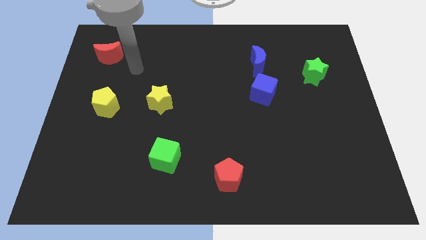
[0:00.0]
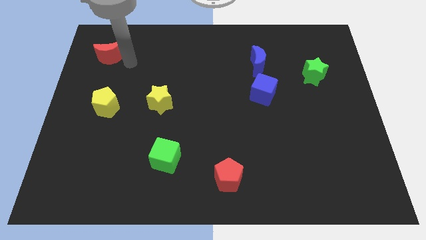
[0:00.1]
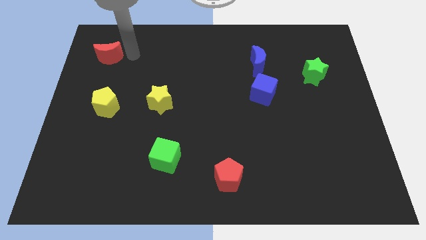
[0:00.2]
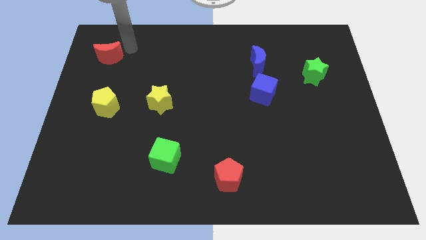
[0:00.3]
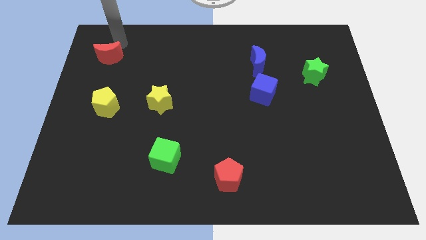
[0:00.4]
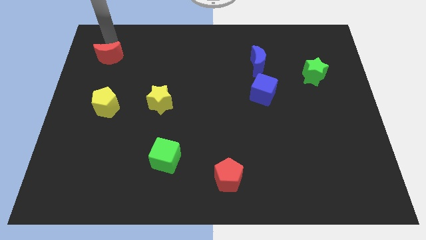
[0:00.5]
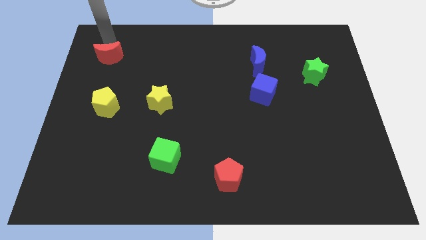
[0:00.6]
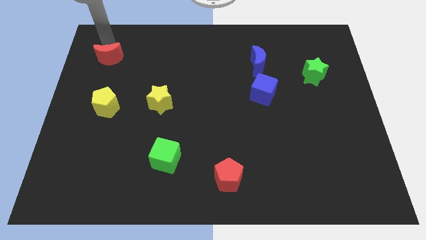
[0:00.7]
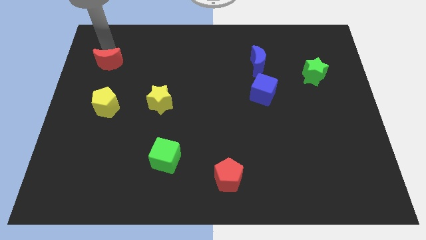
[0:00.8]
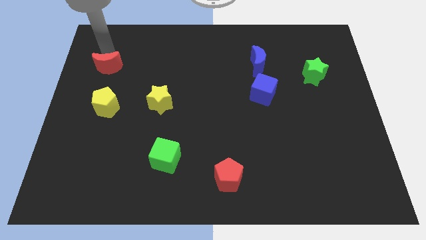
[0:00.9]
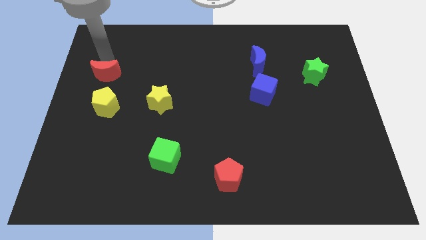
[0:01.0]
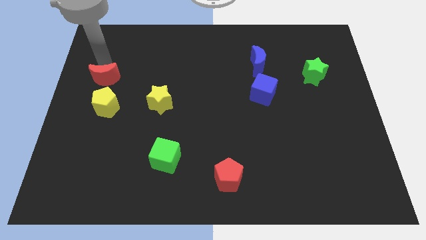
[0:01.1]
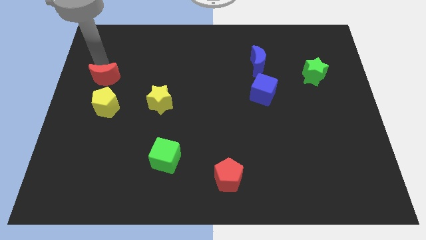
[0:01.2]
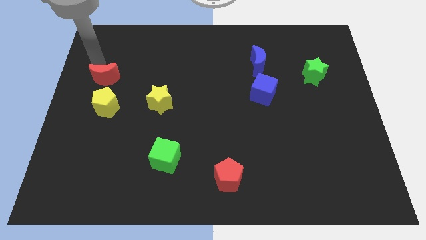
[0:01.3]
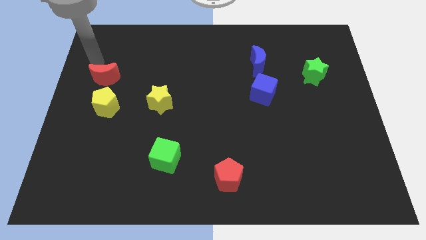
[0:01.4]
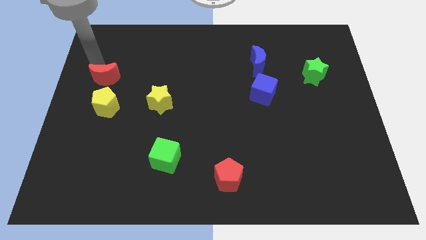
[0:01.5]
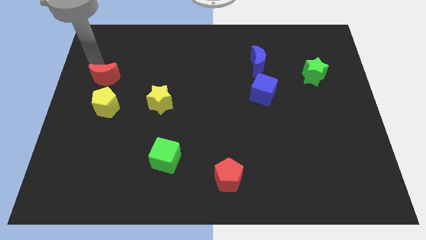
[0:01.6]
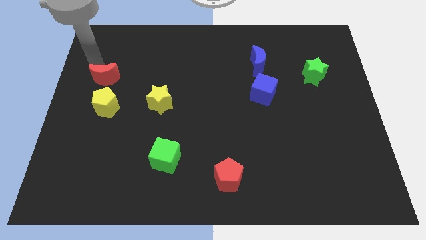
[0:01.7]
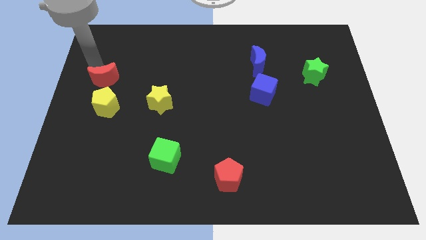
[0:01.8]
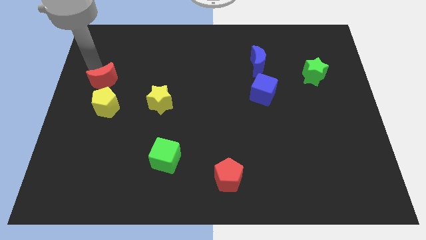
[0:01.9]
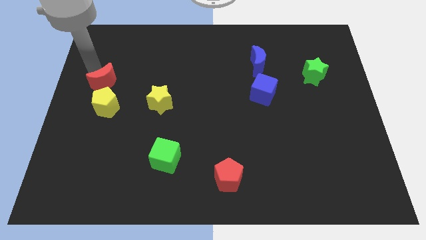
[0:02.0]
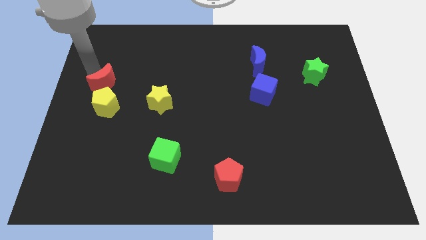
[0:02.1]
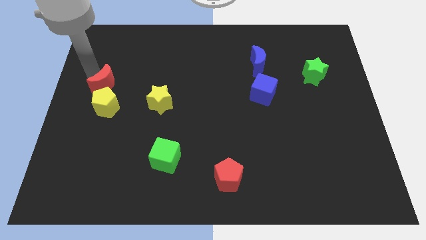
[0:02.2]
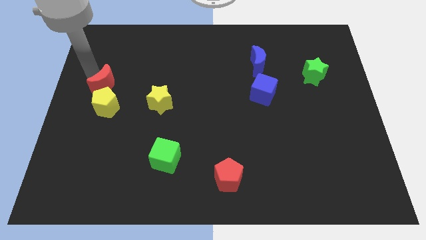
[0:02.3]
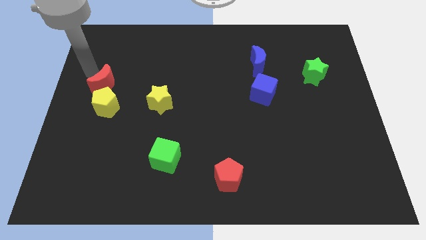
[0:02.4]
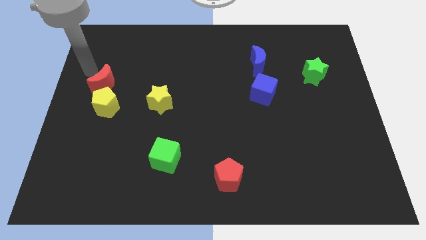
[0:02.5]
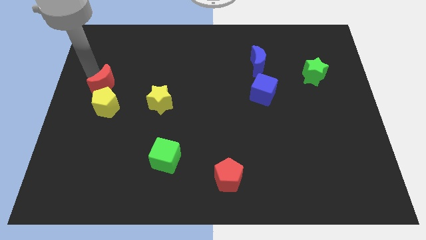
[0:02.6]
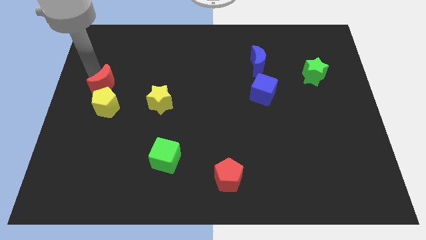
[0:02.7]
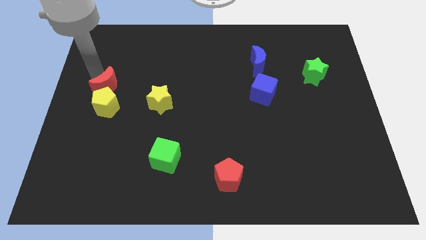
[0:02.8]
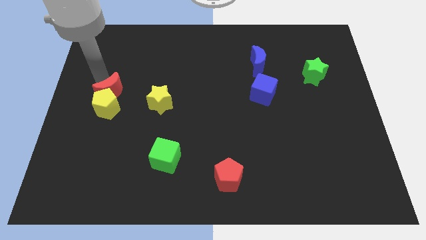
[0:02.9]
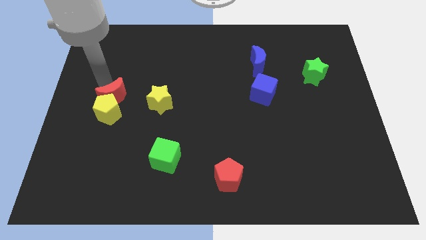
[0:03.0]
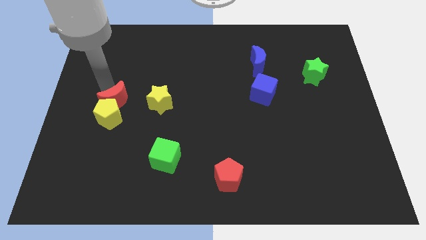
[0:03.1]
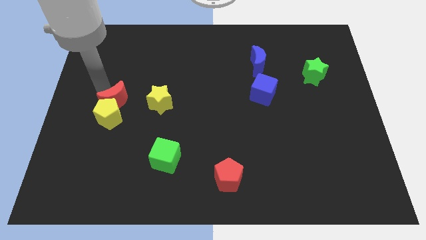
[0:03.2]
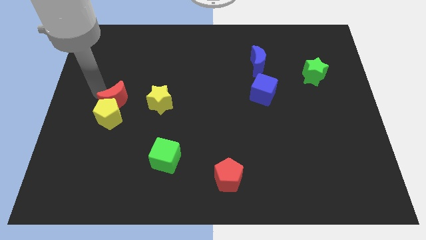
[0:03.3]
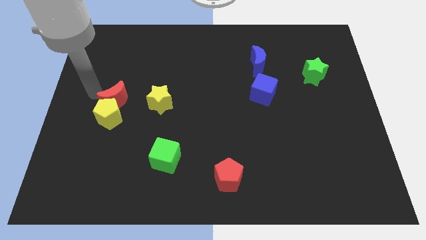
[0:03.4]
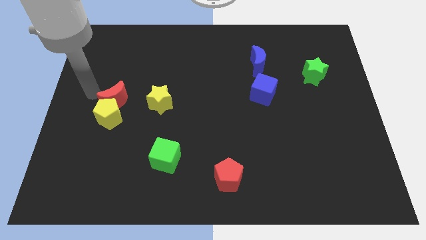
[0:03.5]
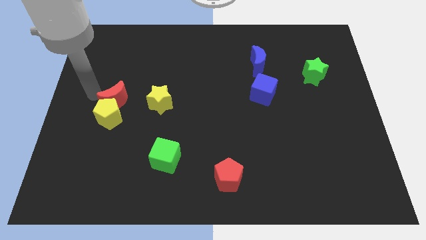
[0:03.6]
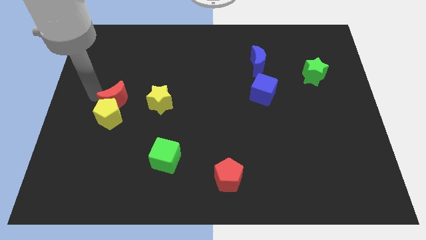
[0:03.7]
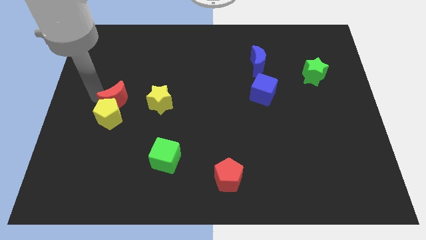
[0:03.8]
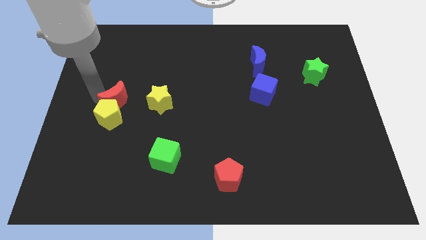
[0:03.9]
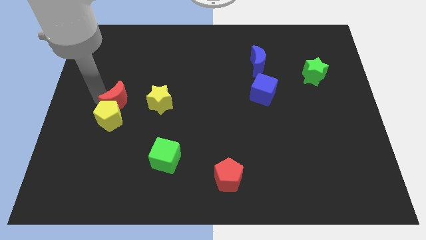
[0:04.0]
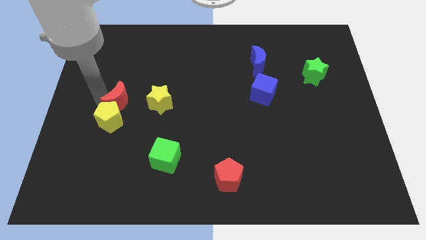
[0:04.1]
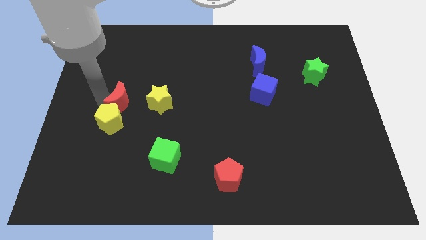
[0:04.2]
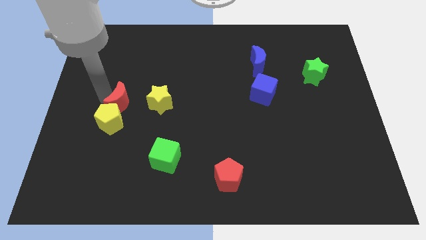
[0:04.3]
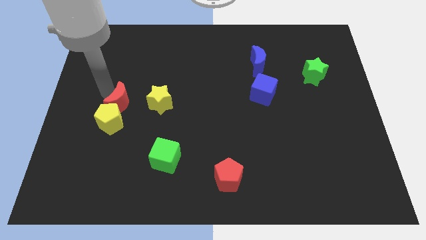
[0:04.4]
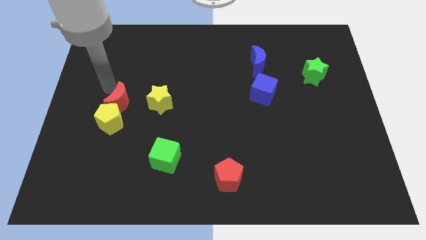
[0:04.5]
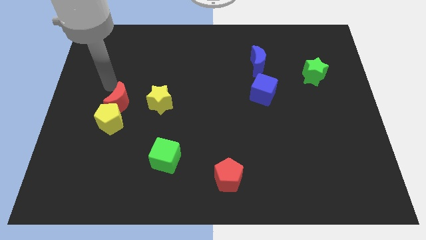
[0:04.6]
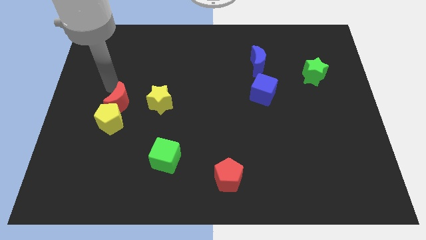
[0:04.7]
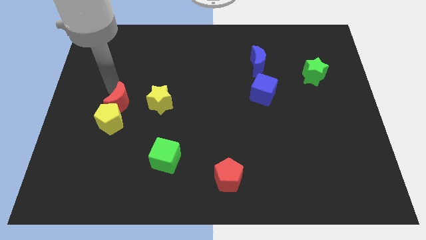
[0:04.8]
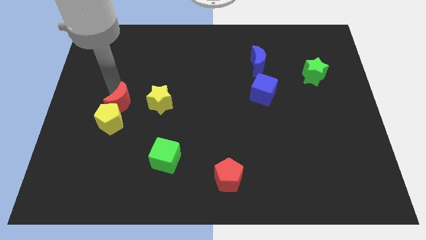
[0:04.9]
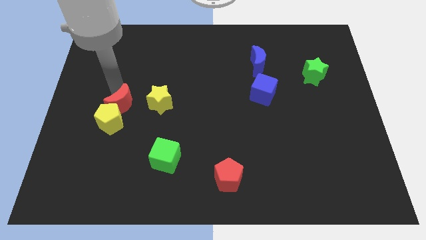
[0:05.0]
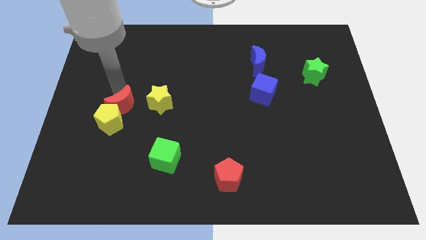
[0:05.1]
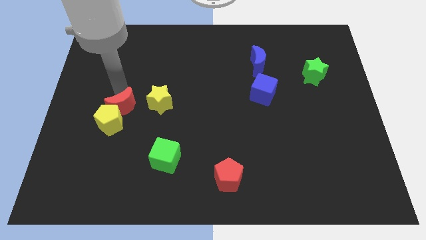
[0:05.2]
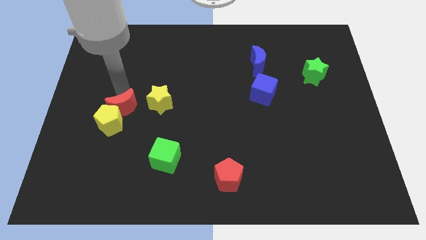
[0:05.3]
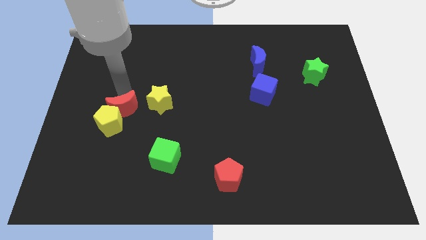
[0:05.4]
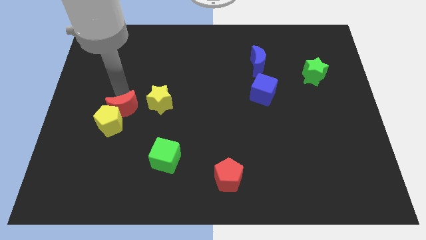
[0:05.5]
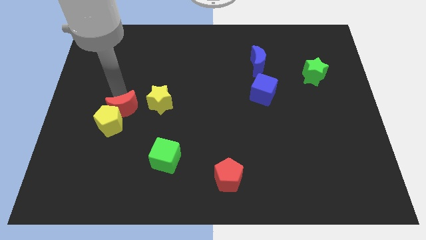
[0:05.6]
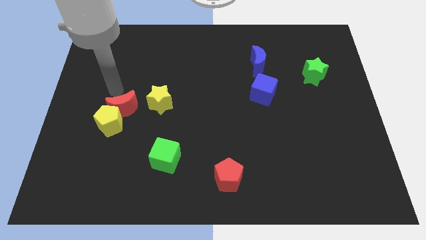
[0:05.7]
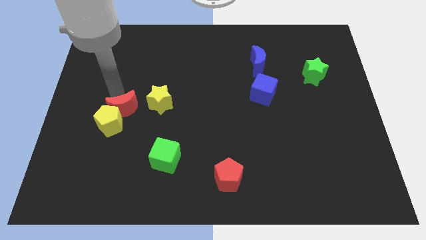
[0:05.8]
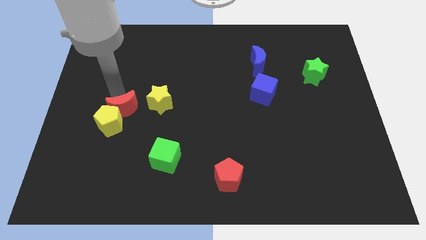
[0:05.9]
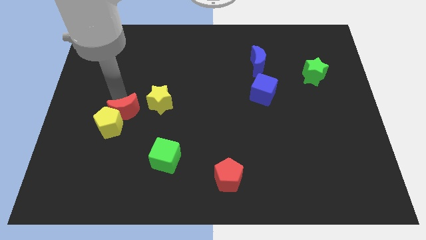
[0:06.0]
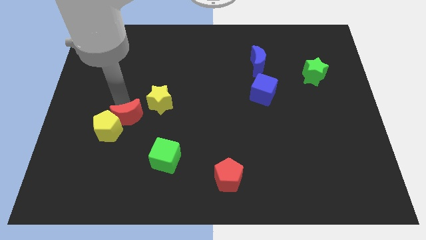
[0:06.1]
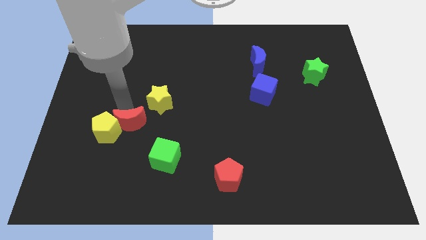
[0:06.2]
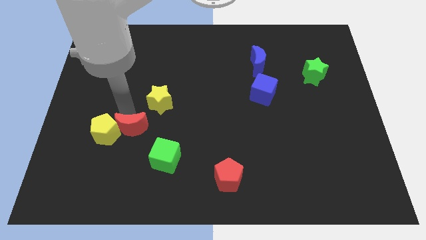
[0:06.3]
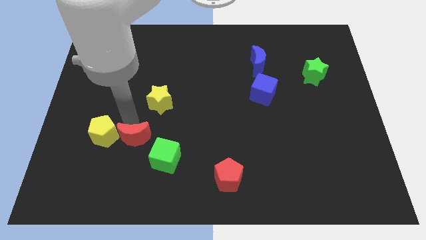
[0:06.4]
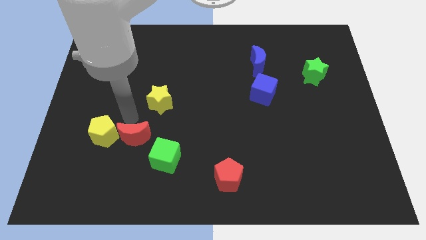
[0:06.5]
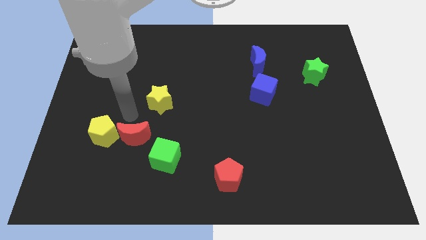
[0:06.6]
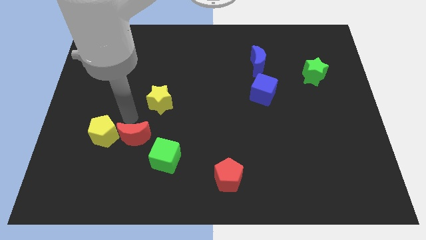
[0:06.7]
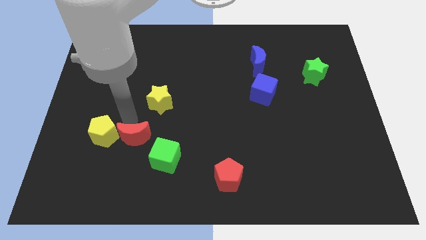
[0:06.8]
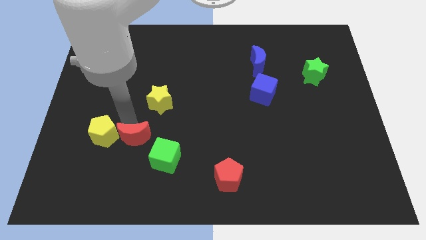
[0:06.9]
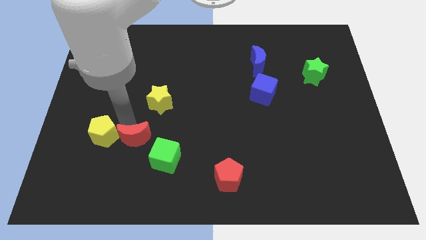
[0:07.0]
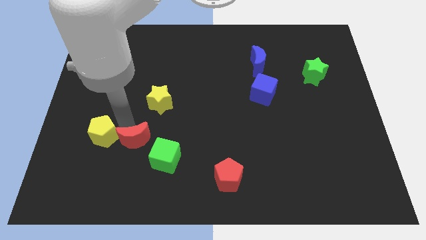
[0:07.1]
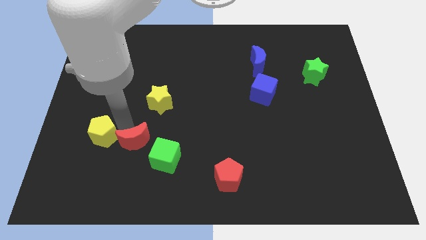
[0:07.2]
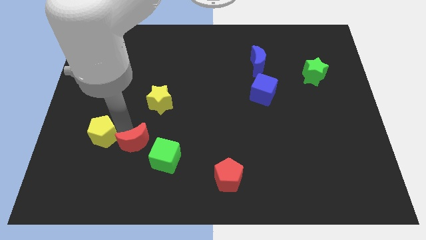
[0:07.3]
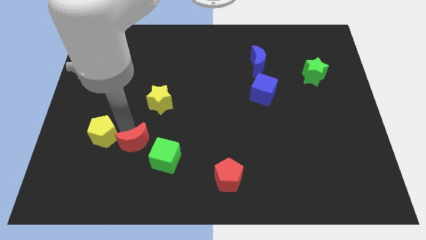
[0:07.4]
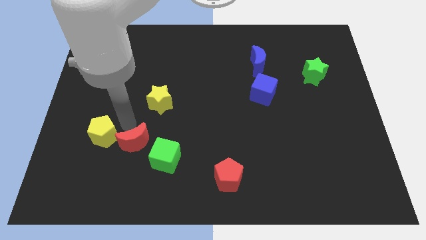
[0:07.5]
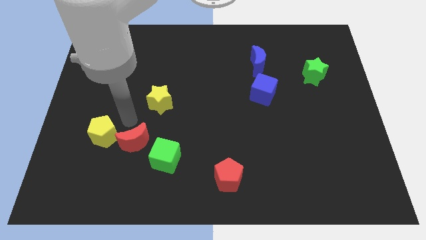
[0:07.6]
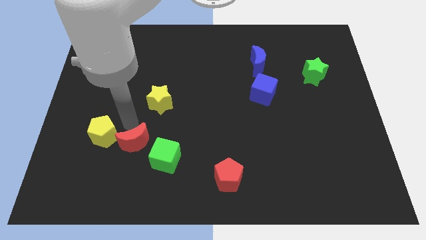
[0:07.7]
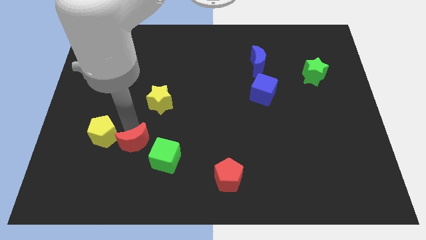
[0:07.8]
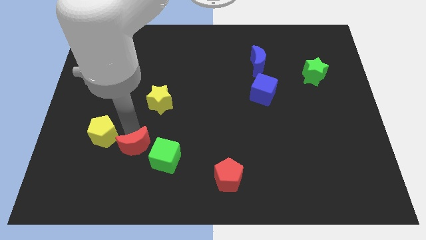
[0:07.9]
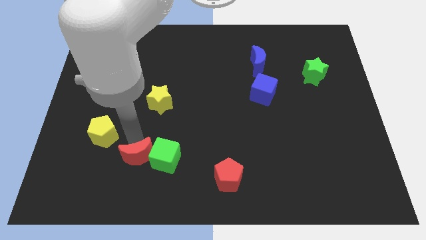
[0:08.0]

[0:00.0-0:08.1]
move the red moon to the bottom left of the green cube
